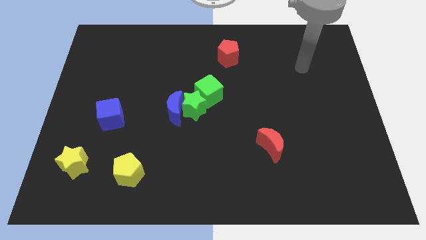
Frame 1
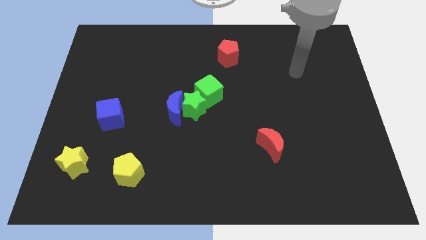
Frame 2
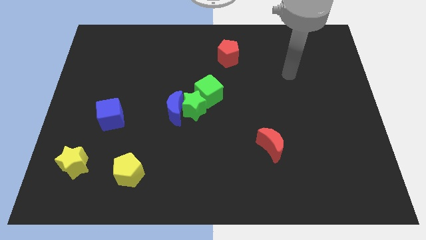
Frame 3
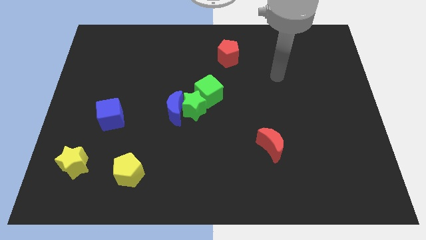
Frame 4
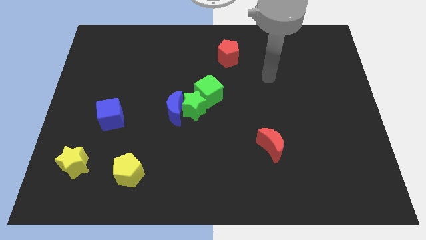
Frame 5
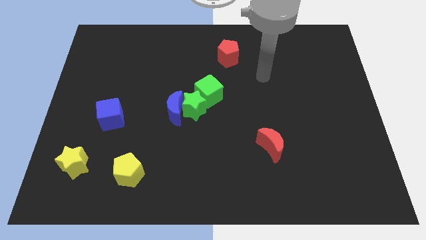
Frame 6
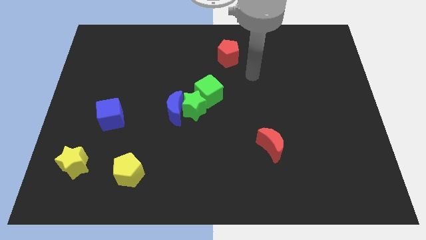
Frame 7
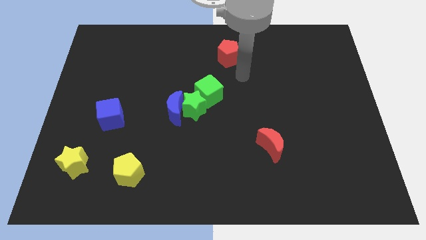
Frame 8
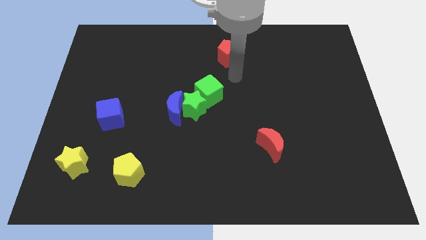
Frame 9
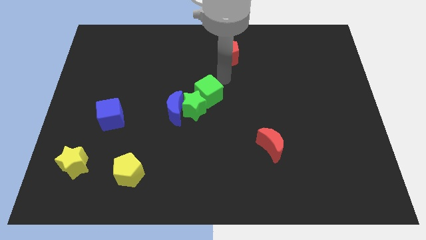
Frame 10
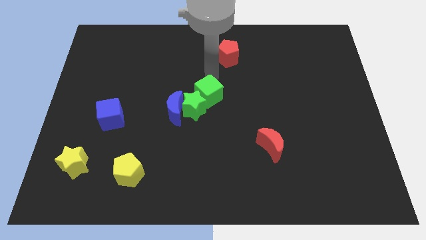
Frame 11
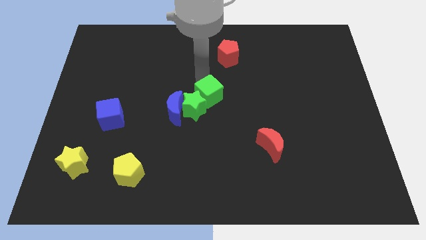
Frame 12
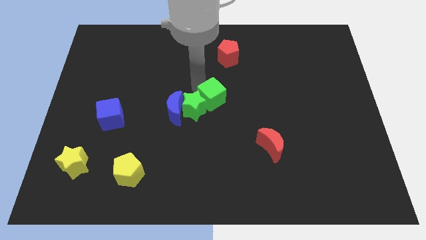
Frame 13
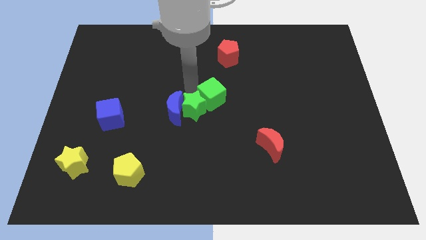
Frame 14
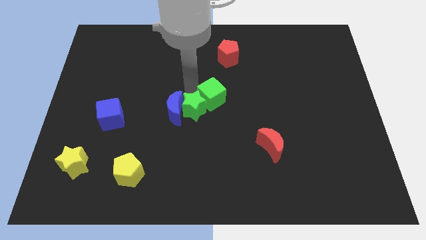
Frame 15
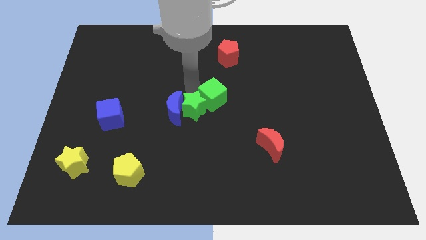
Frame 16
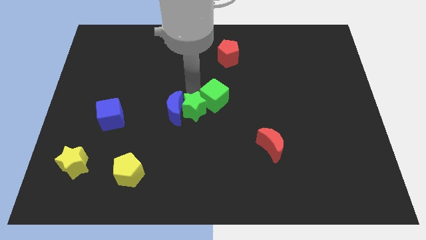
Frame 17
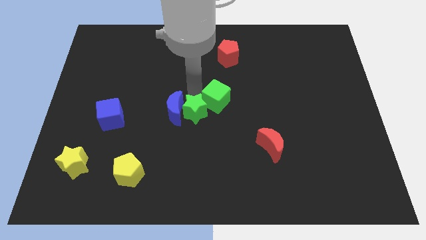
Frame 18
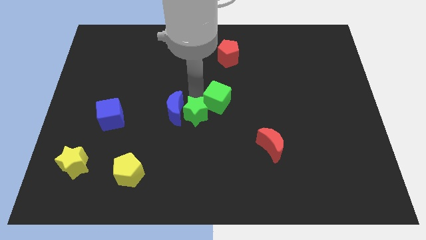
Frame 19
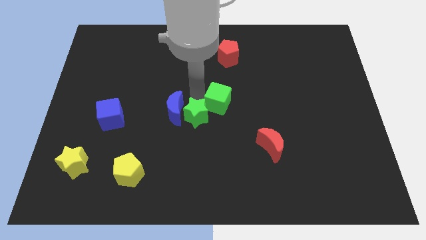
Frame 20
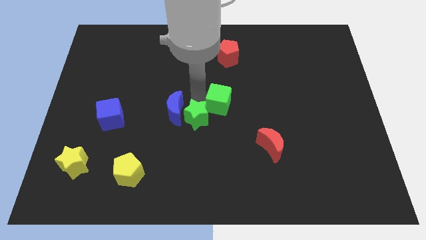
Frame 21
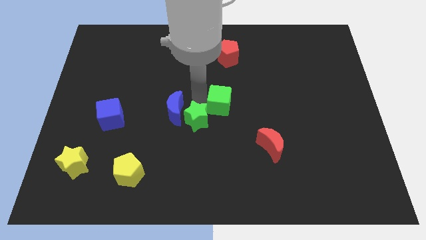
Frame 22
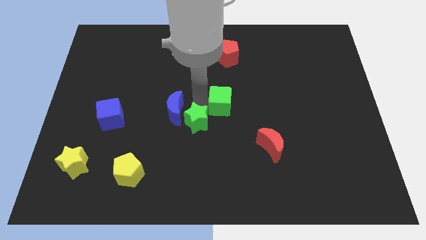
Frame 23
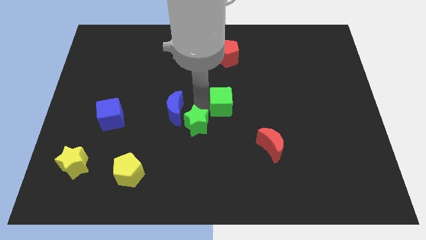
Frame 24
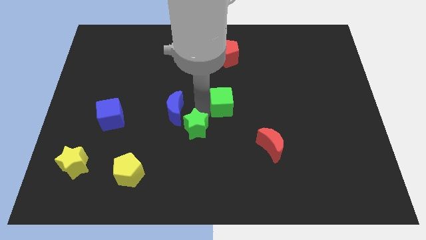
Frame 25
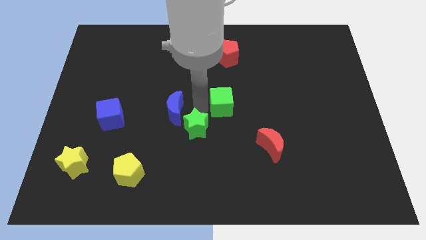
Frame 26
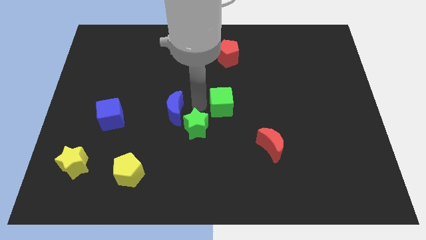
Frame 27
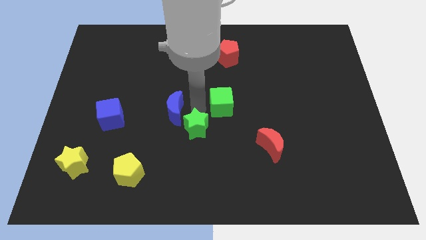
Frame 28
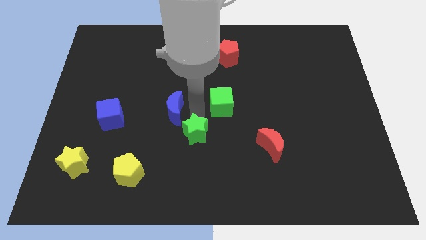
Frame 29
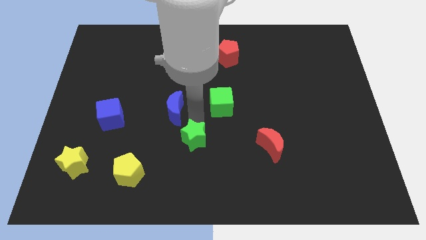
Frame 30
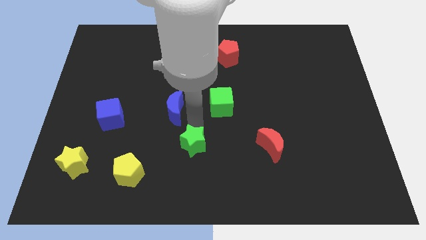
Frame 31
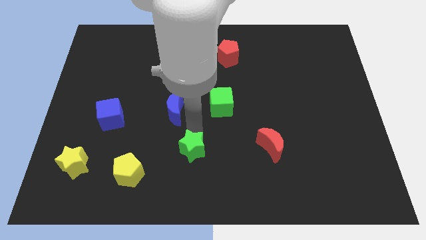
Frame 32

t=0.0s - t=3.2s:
move the green star away from the blue moon and green cube

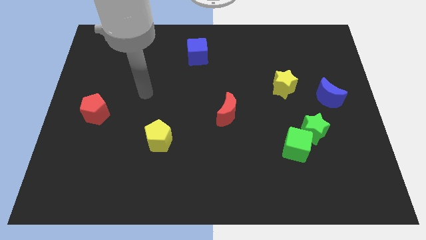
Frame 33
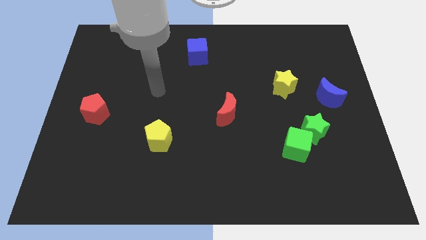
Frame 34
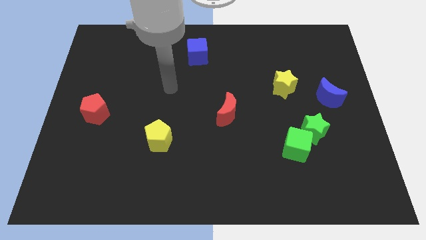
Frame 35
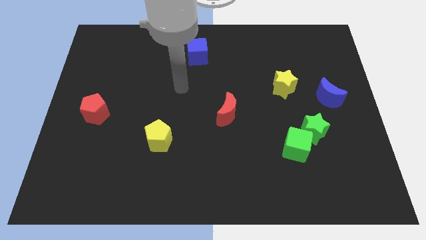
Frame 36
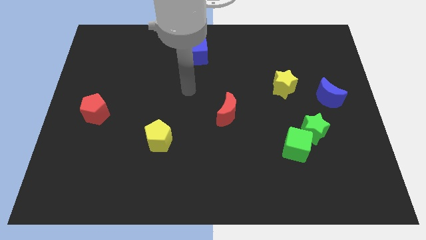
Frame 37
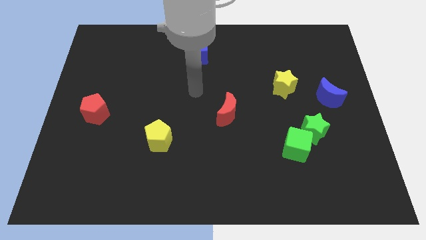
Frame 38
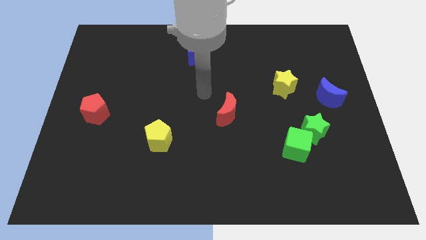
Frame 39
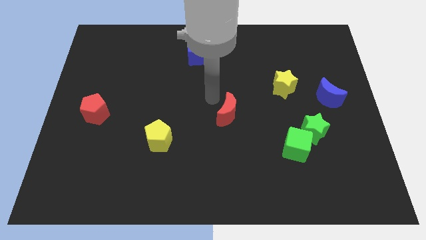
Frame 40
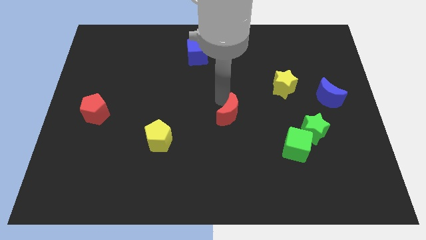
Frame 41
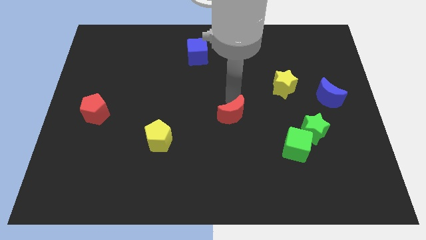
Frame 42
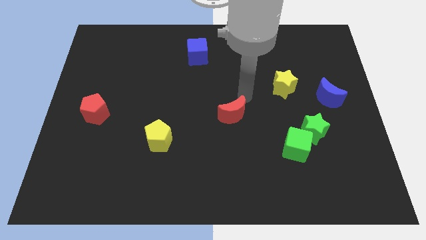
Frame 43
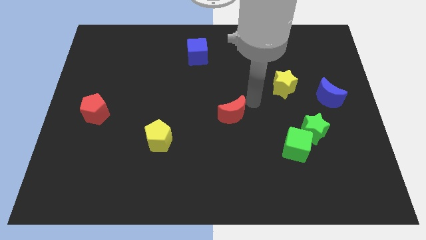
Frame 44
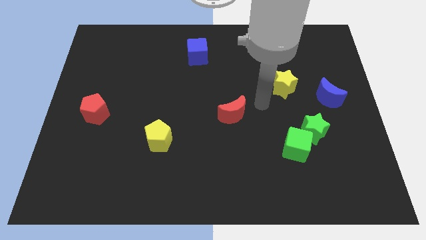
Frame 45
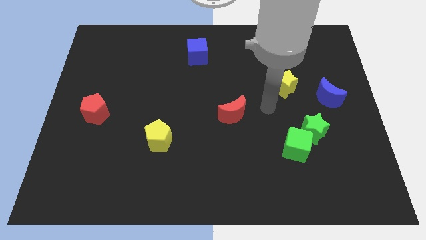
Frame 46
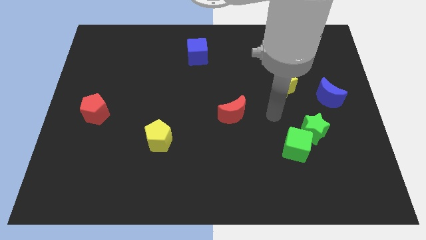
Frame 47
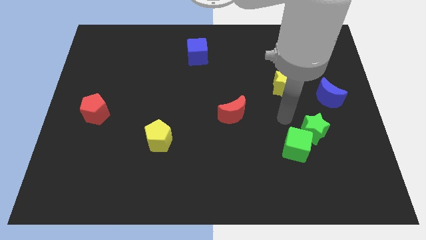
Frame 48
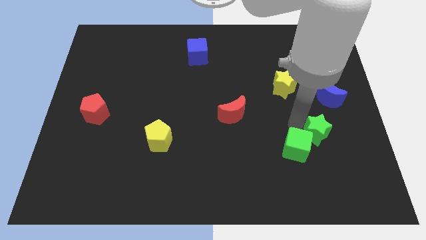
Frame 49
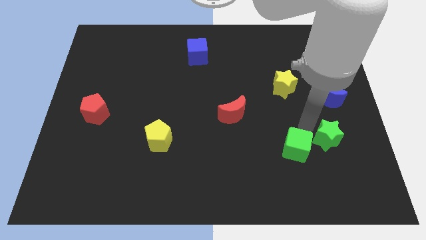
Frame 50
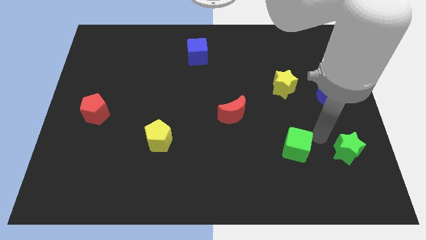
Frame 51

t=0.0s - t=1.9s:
move the green cube away from the green star

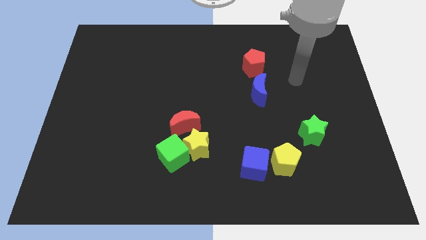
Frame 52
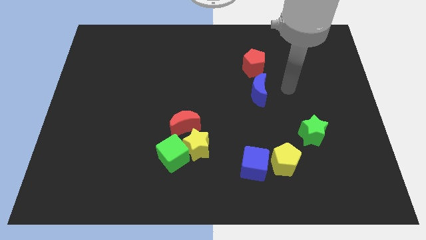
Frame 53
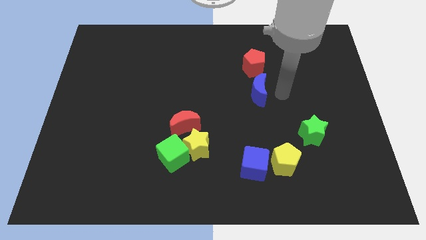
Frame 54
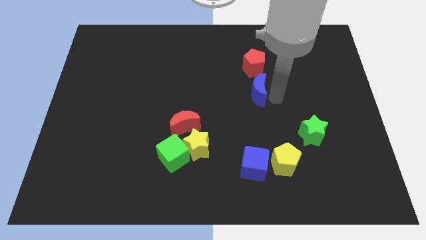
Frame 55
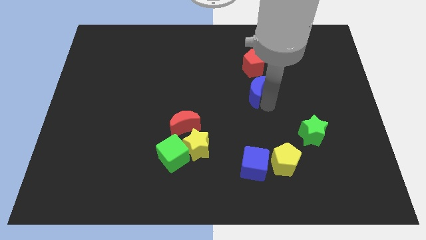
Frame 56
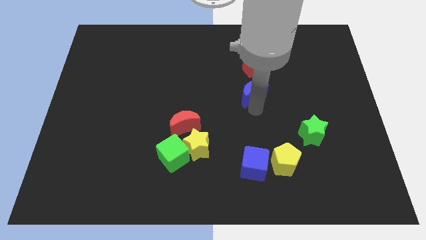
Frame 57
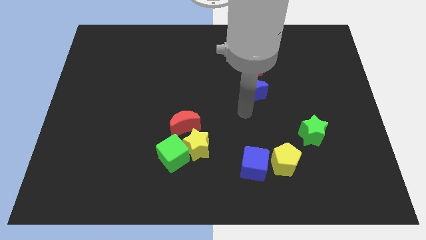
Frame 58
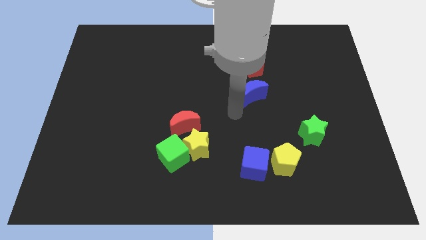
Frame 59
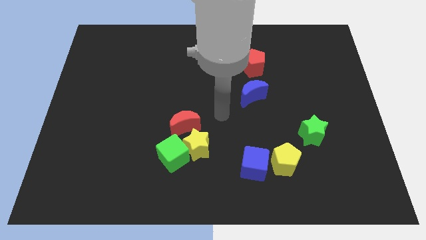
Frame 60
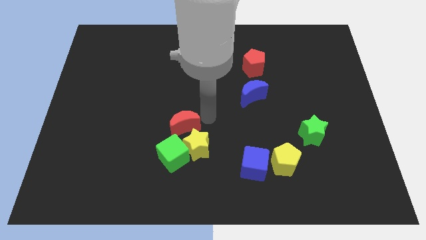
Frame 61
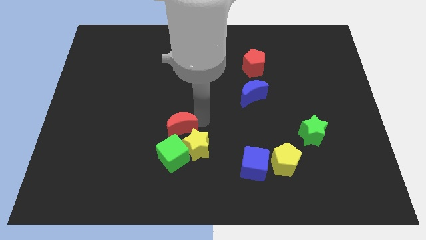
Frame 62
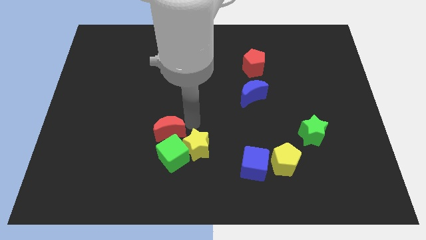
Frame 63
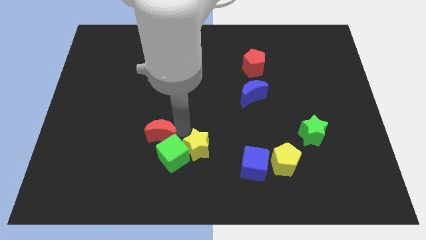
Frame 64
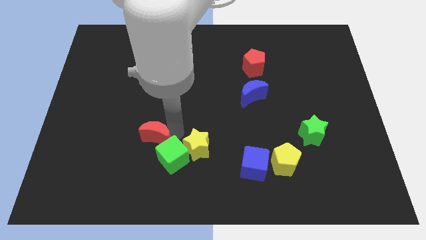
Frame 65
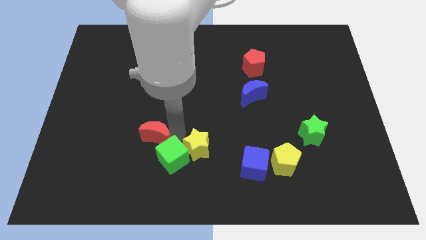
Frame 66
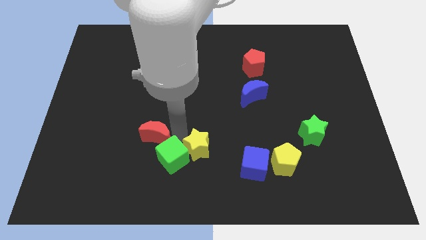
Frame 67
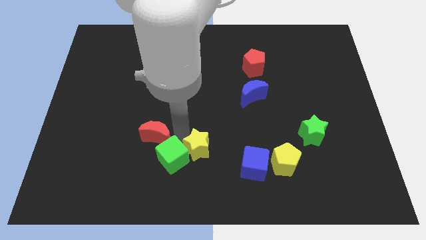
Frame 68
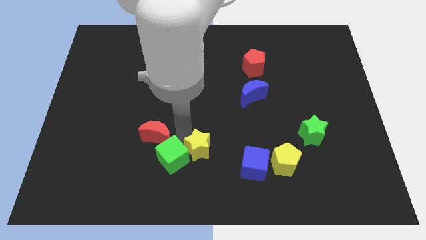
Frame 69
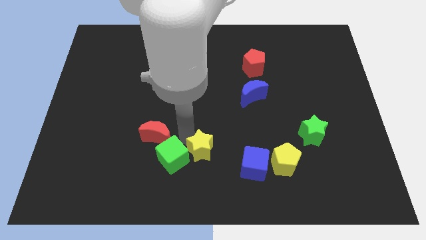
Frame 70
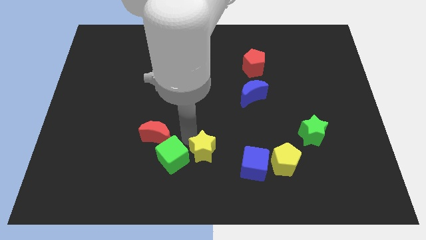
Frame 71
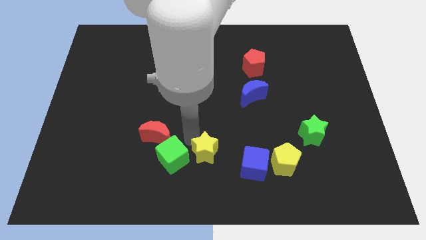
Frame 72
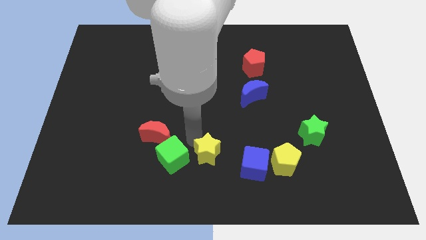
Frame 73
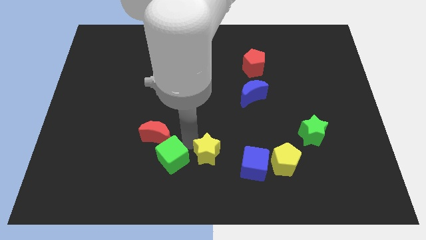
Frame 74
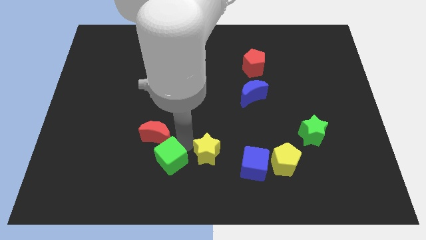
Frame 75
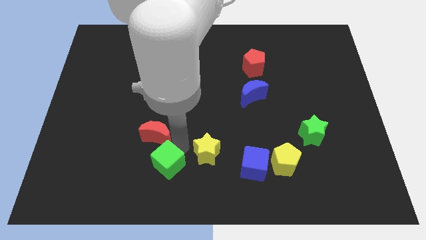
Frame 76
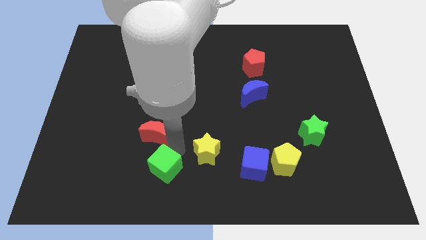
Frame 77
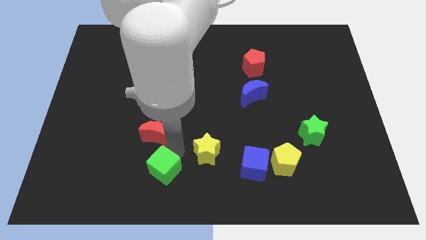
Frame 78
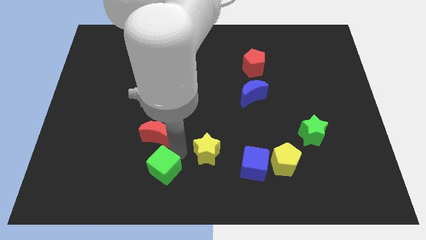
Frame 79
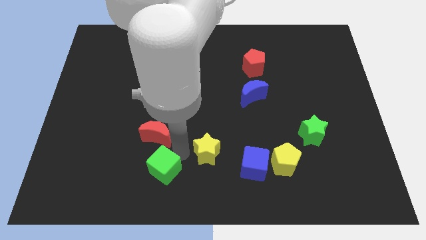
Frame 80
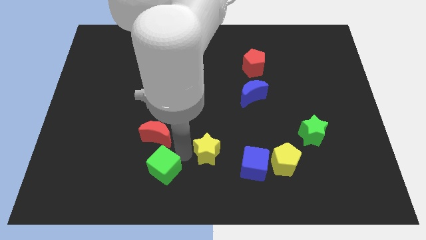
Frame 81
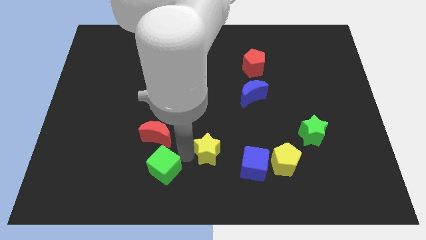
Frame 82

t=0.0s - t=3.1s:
separate the yellow star from the green cube and red moon

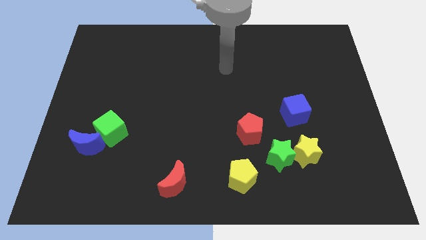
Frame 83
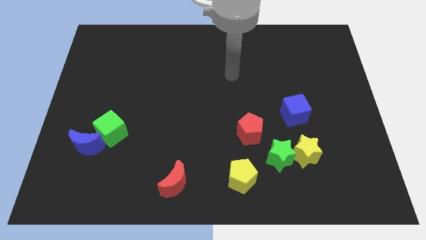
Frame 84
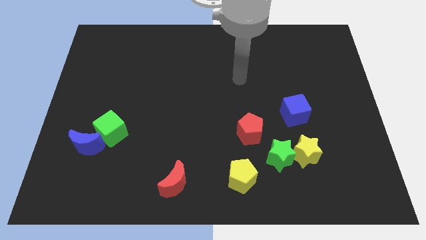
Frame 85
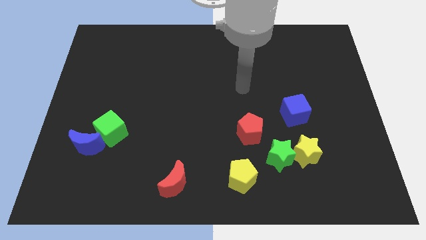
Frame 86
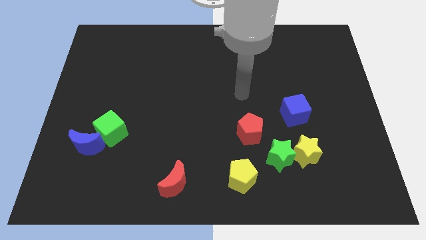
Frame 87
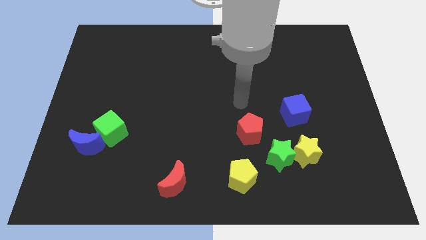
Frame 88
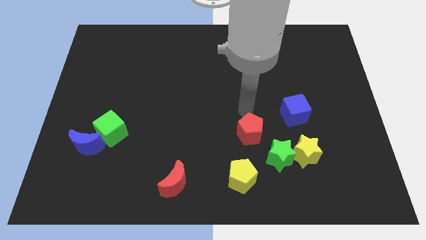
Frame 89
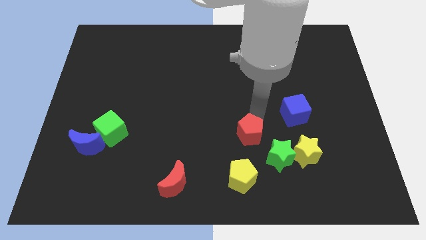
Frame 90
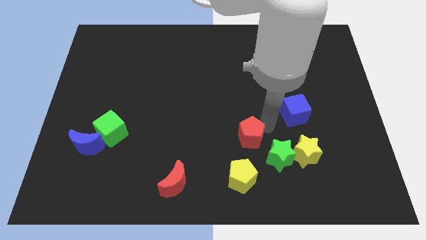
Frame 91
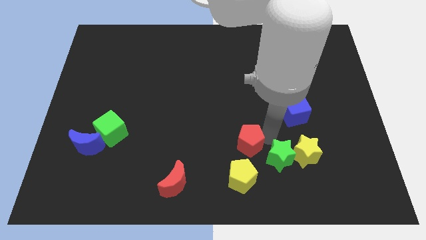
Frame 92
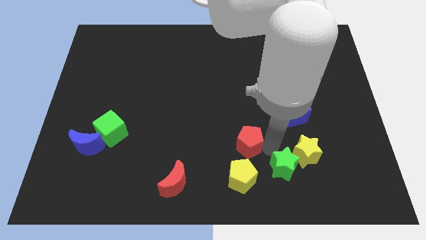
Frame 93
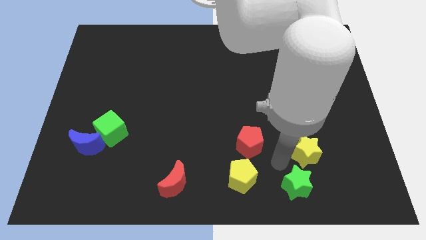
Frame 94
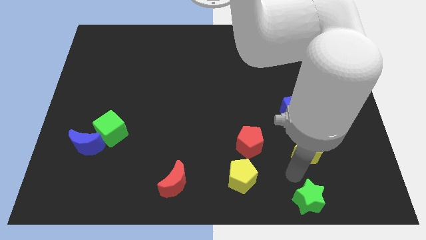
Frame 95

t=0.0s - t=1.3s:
pull the yellow star apart from the green star
